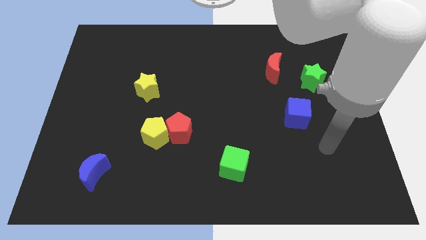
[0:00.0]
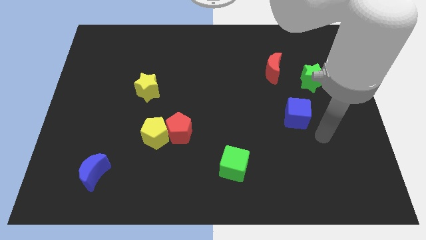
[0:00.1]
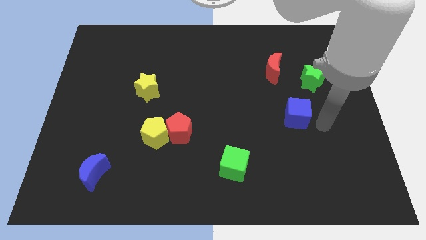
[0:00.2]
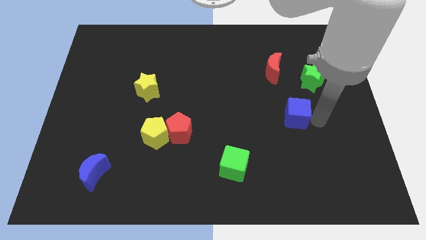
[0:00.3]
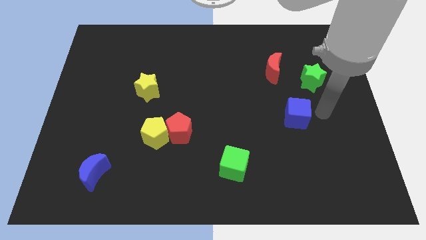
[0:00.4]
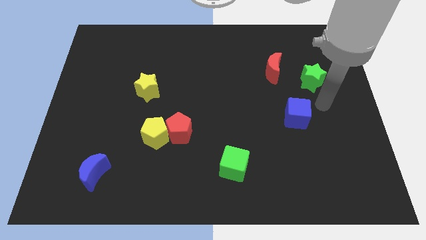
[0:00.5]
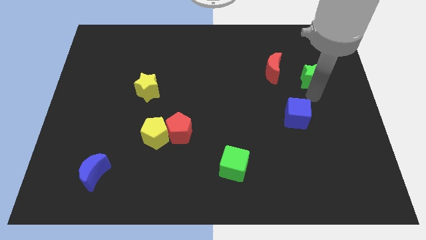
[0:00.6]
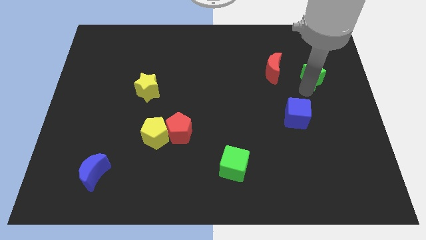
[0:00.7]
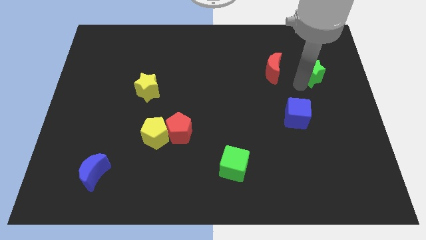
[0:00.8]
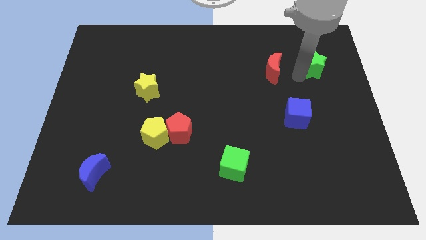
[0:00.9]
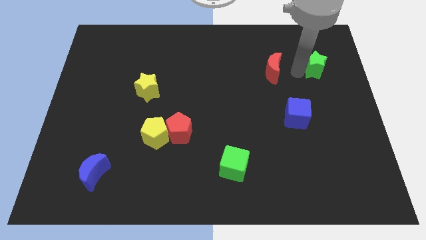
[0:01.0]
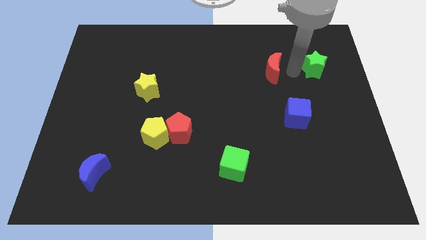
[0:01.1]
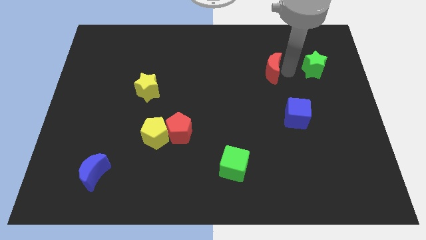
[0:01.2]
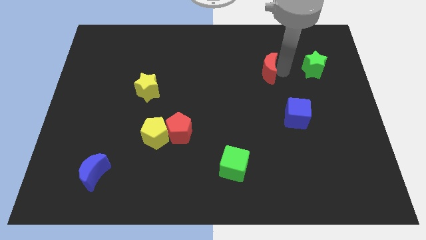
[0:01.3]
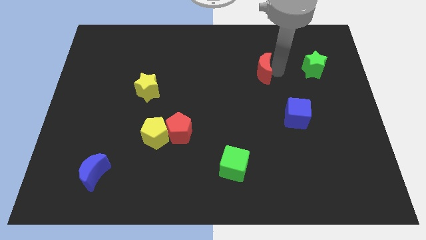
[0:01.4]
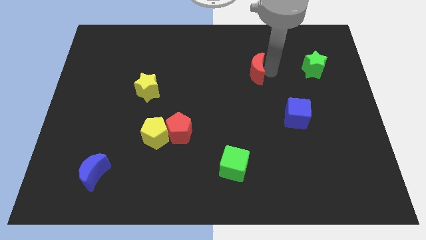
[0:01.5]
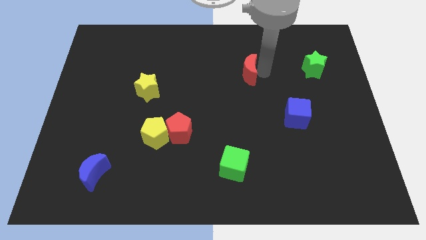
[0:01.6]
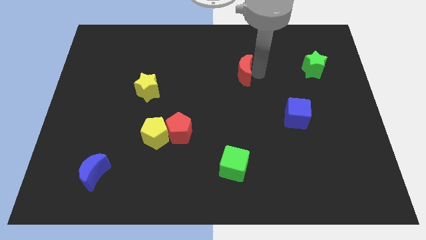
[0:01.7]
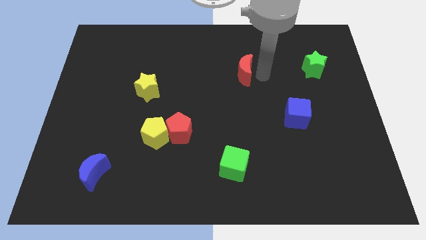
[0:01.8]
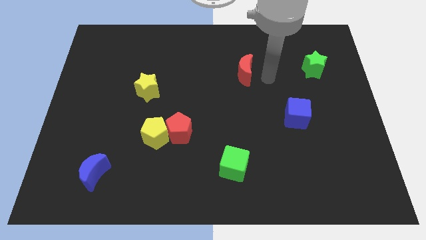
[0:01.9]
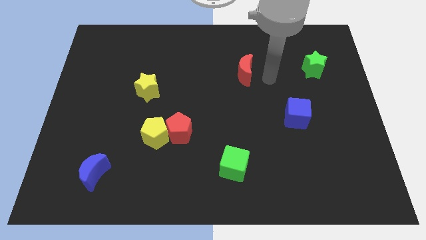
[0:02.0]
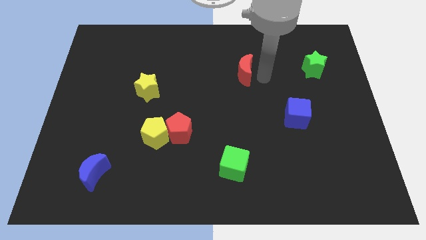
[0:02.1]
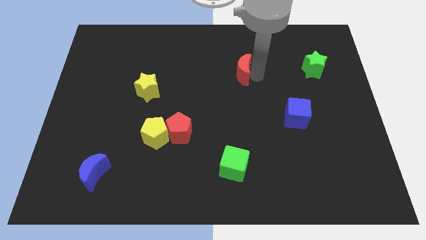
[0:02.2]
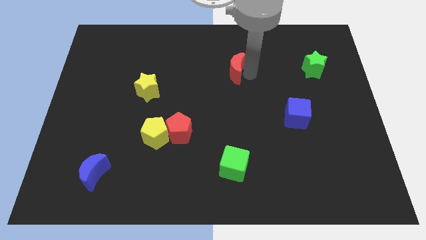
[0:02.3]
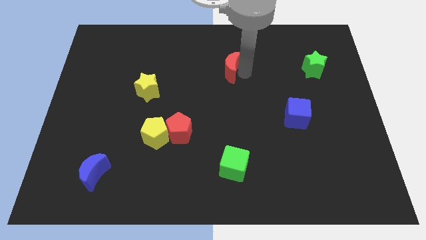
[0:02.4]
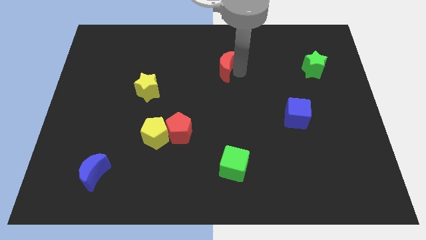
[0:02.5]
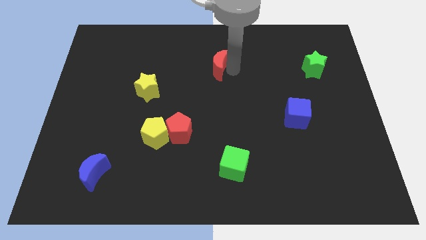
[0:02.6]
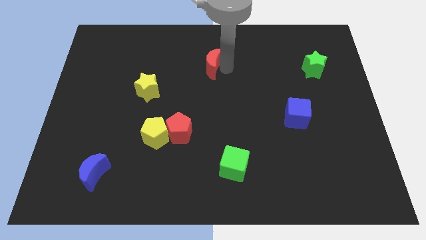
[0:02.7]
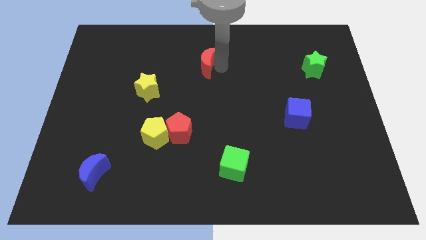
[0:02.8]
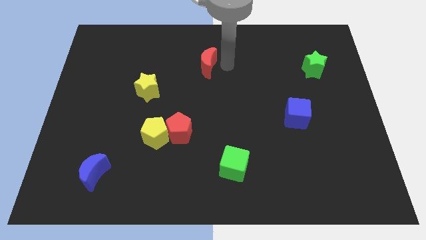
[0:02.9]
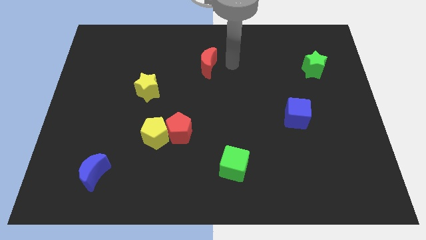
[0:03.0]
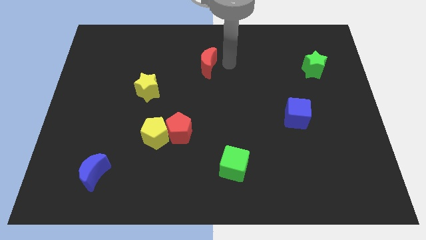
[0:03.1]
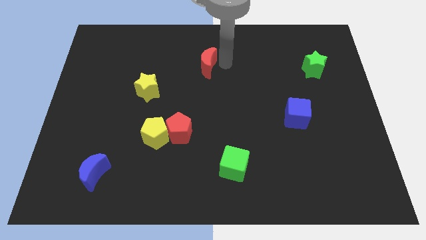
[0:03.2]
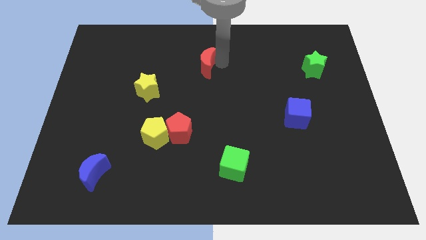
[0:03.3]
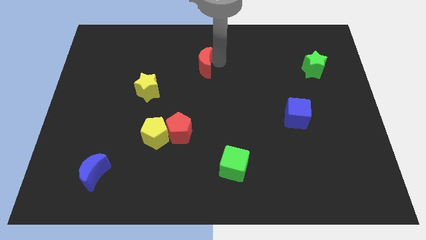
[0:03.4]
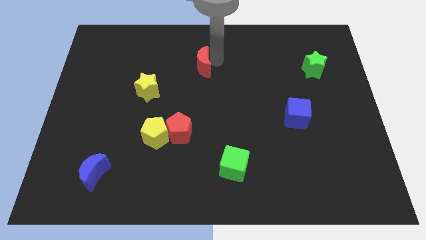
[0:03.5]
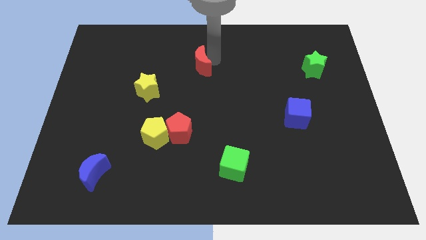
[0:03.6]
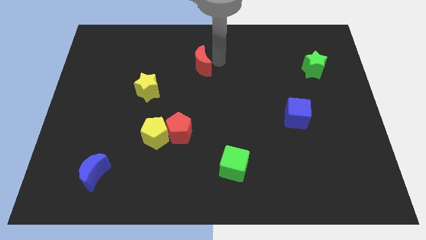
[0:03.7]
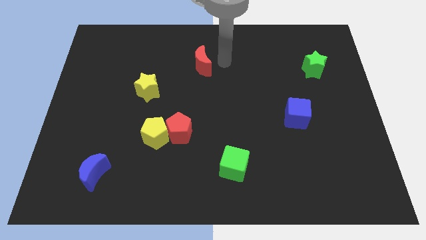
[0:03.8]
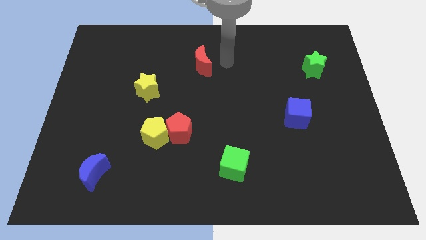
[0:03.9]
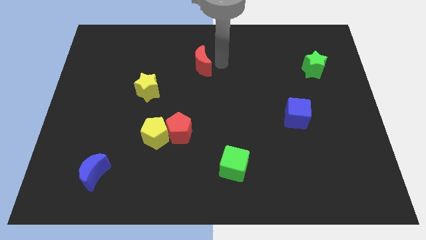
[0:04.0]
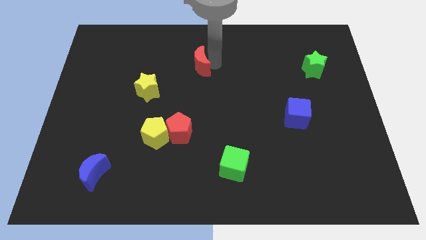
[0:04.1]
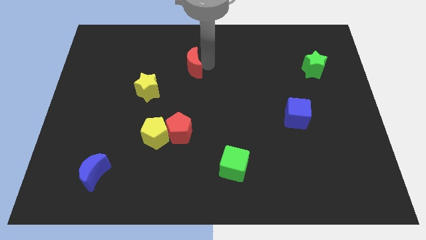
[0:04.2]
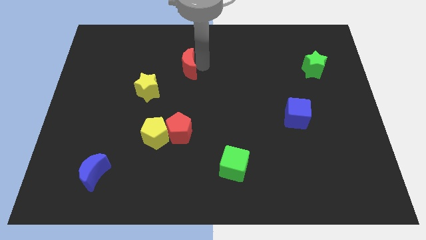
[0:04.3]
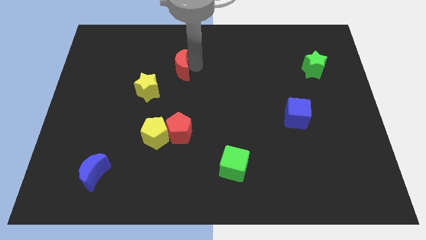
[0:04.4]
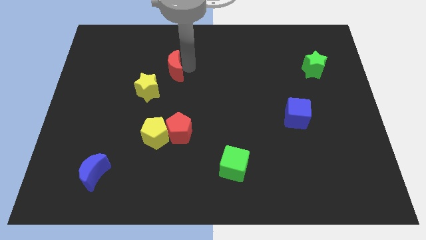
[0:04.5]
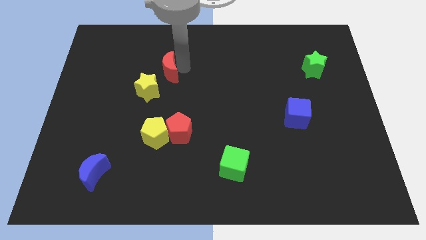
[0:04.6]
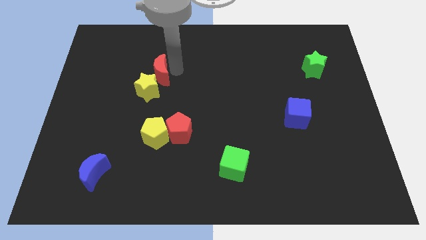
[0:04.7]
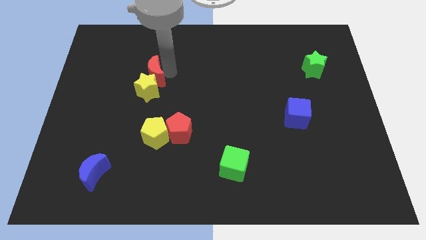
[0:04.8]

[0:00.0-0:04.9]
push the red moon diagonally up and to the left of the yellow star

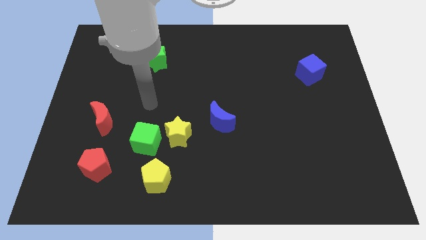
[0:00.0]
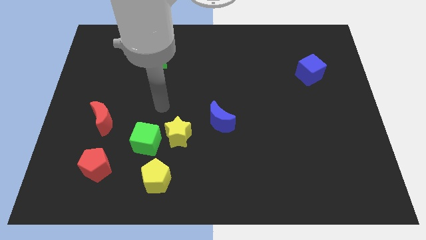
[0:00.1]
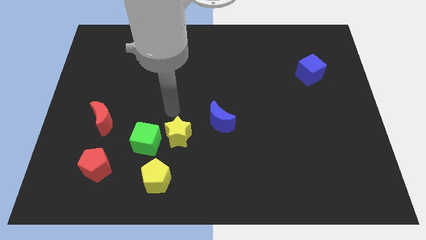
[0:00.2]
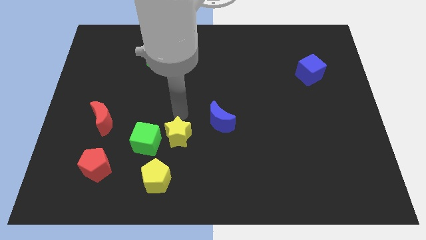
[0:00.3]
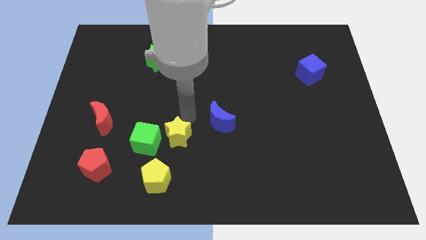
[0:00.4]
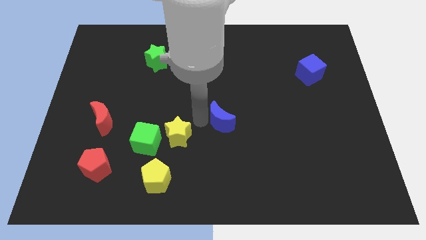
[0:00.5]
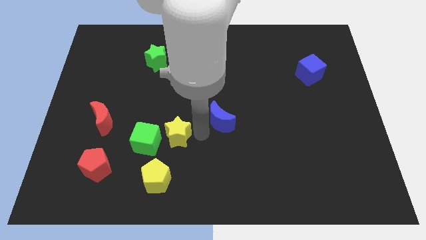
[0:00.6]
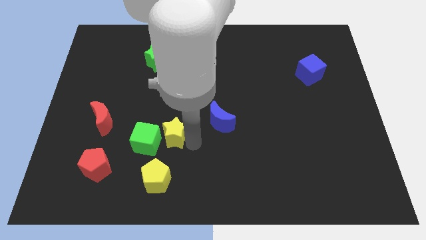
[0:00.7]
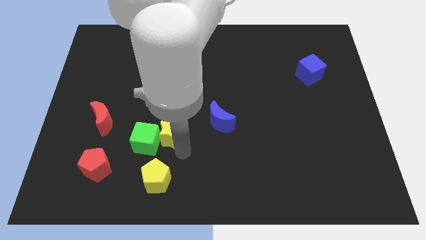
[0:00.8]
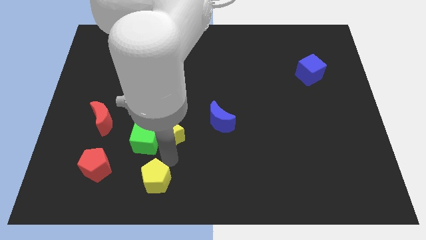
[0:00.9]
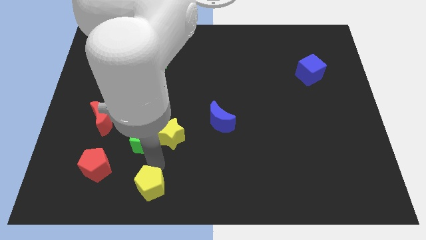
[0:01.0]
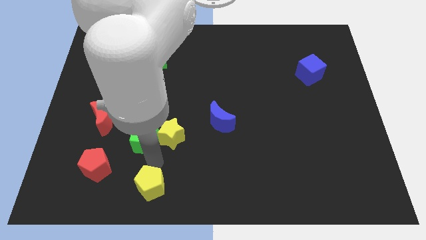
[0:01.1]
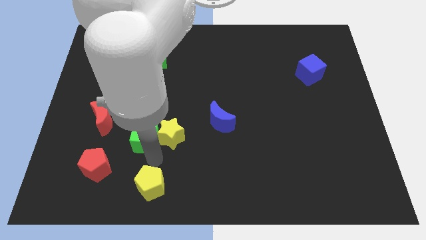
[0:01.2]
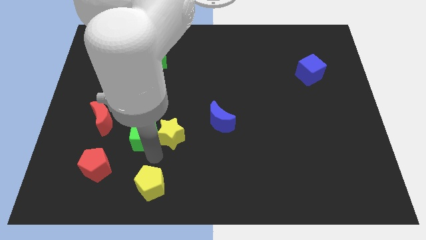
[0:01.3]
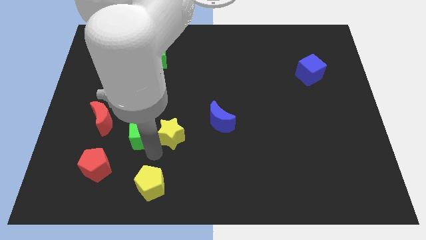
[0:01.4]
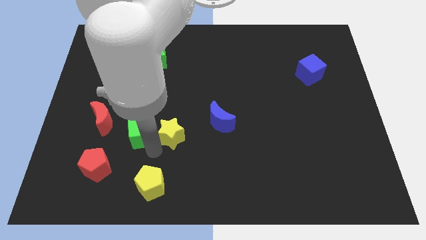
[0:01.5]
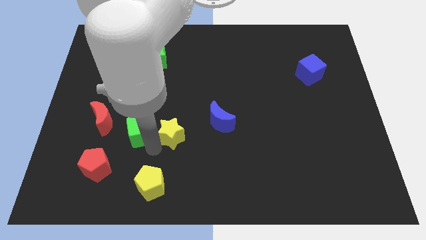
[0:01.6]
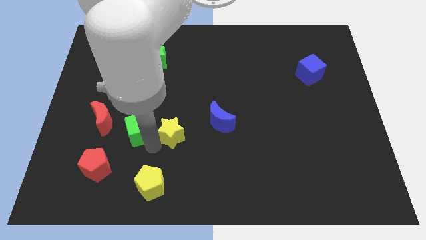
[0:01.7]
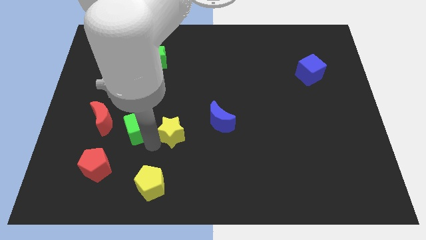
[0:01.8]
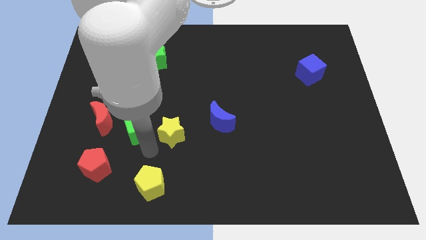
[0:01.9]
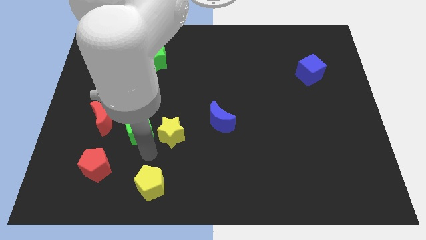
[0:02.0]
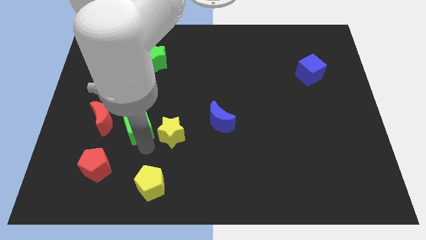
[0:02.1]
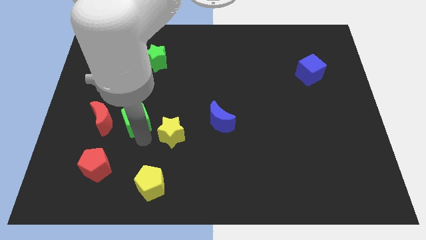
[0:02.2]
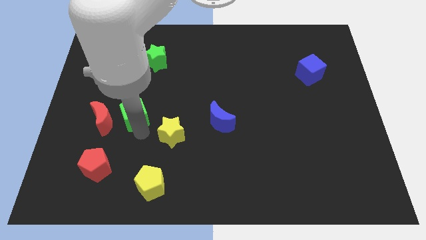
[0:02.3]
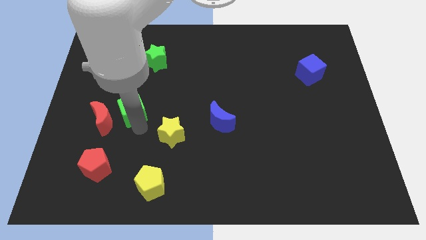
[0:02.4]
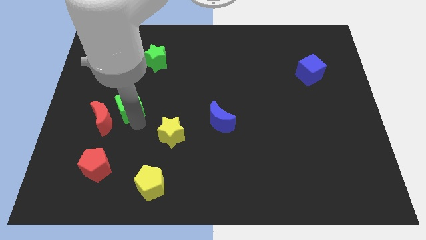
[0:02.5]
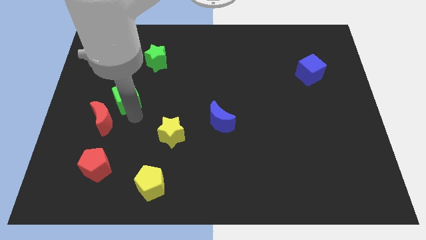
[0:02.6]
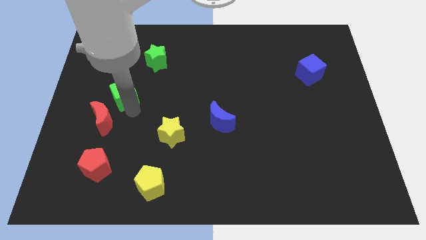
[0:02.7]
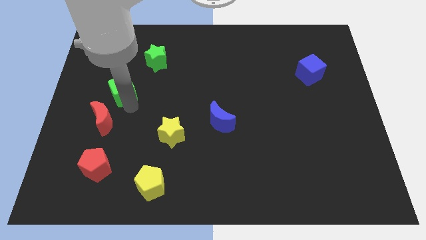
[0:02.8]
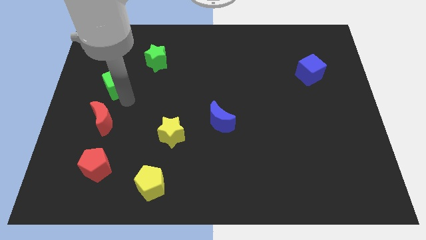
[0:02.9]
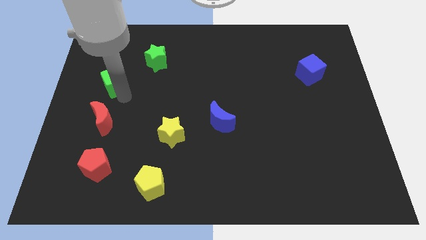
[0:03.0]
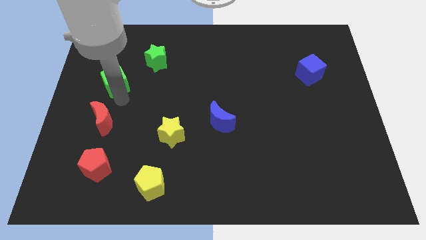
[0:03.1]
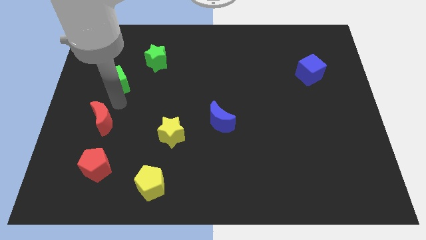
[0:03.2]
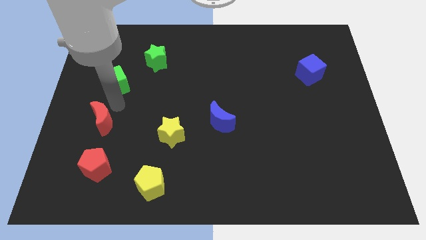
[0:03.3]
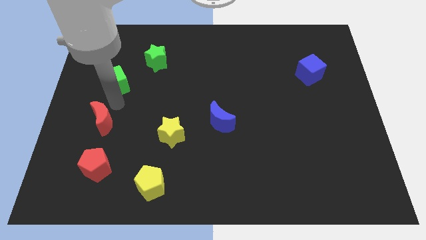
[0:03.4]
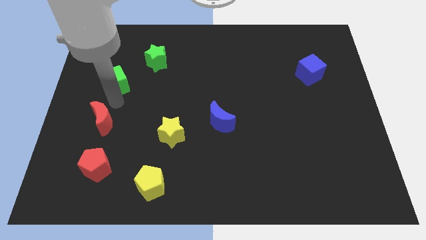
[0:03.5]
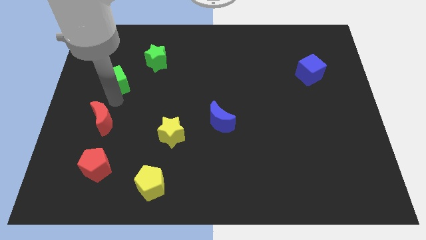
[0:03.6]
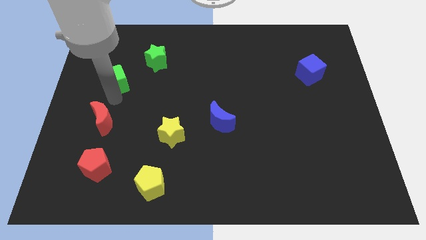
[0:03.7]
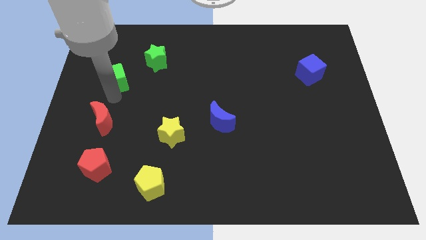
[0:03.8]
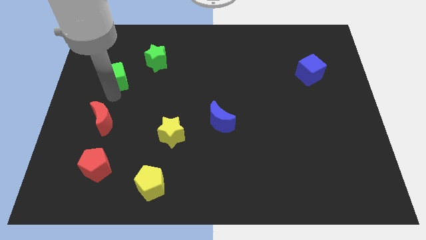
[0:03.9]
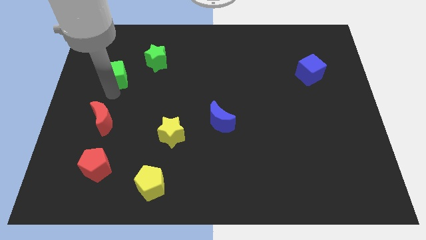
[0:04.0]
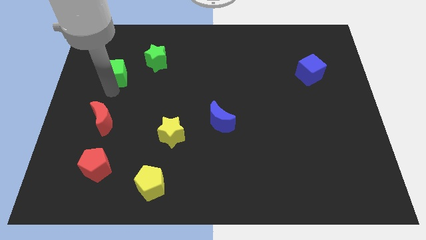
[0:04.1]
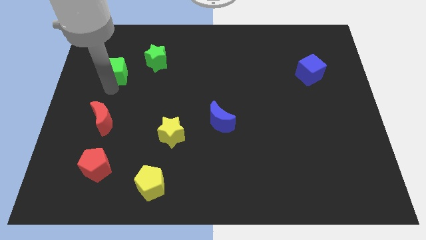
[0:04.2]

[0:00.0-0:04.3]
push the green cube left of the green star
